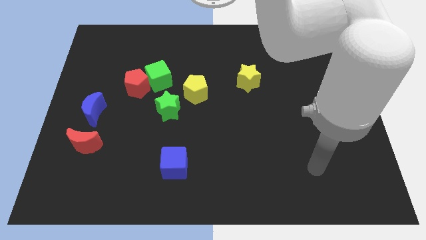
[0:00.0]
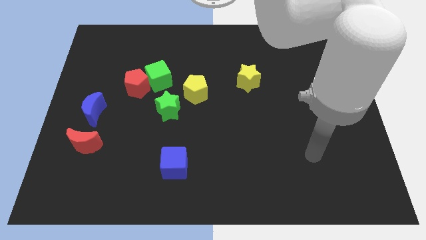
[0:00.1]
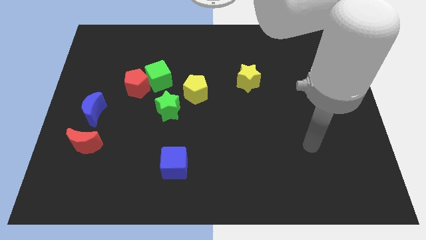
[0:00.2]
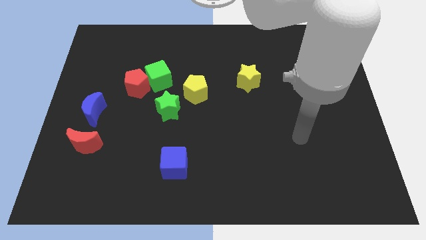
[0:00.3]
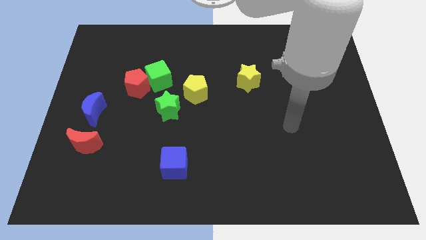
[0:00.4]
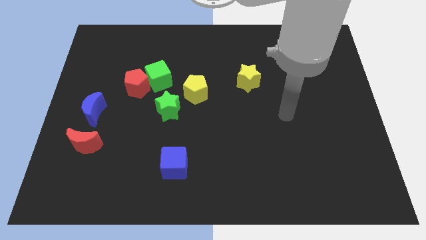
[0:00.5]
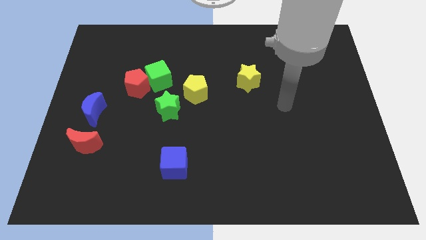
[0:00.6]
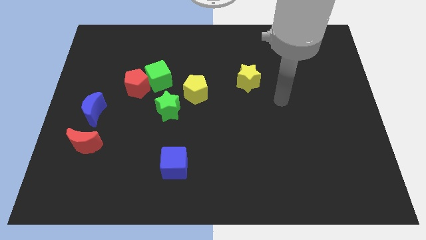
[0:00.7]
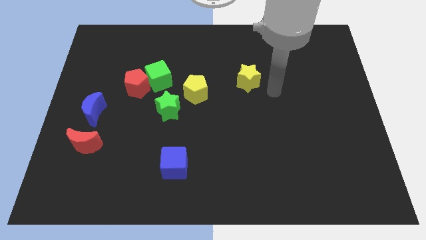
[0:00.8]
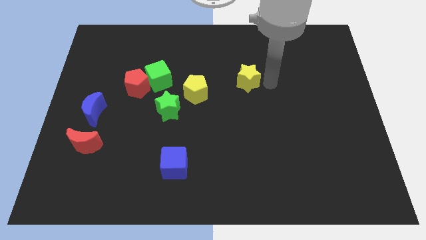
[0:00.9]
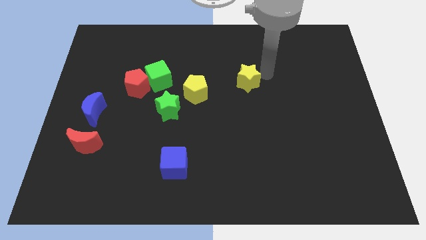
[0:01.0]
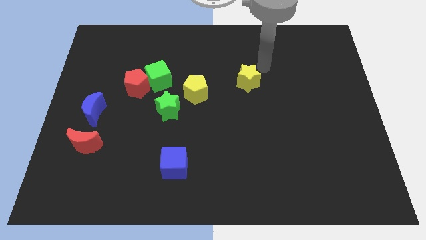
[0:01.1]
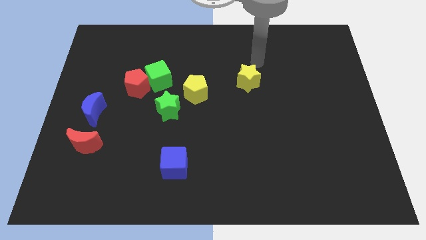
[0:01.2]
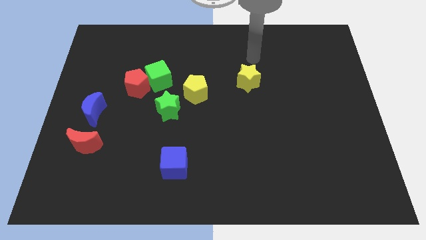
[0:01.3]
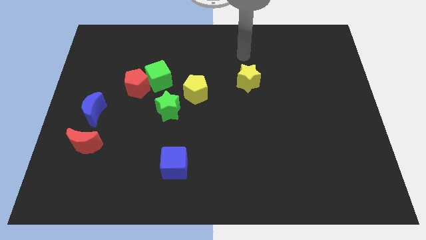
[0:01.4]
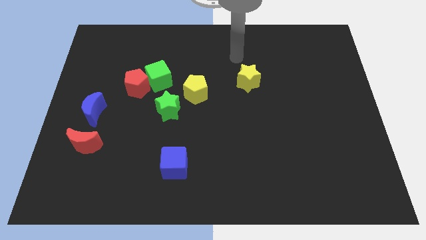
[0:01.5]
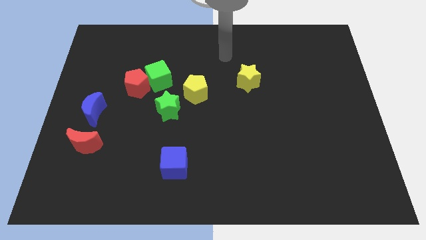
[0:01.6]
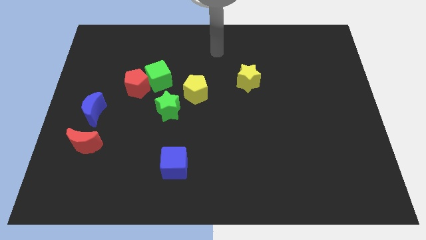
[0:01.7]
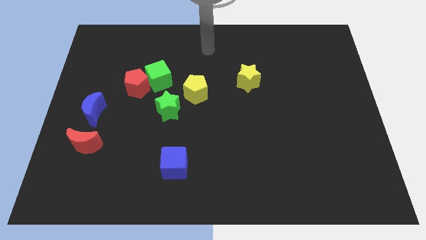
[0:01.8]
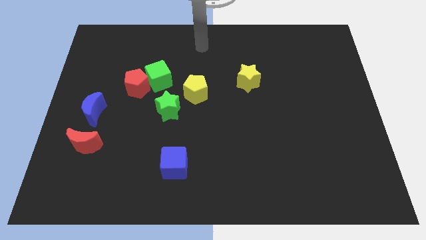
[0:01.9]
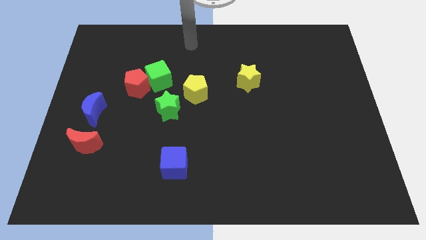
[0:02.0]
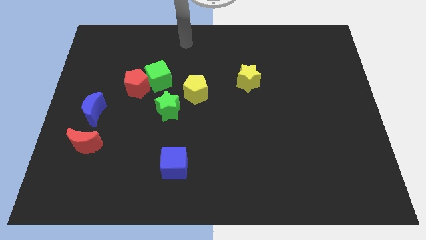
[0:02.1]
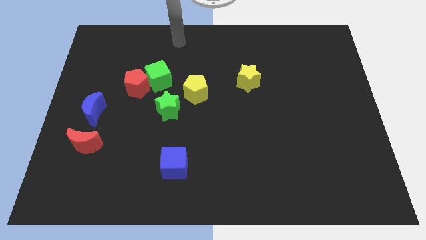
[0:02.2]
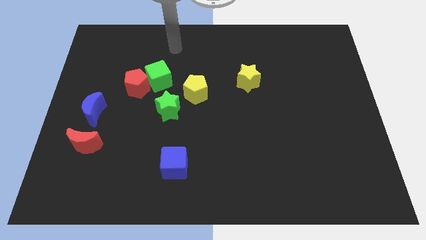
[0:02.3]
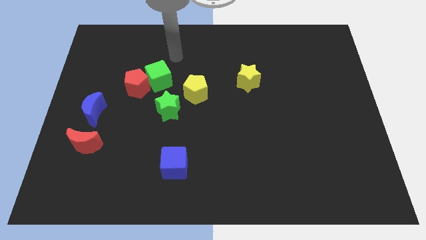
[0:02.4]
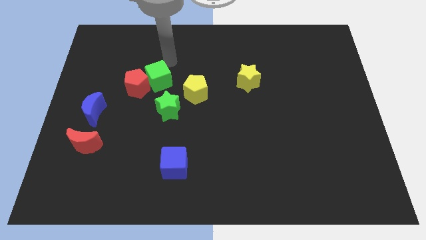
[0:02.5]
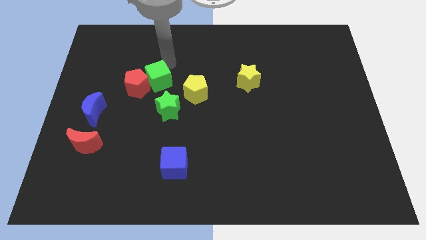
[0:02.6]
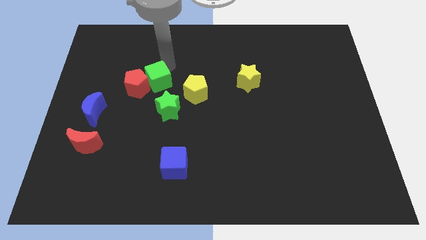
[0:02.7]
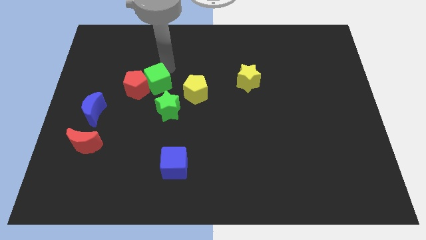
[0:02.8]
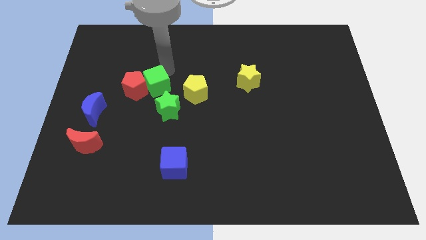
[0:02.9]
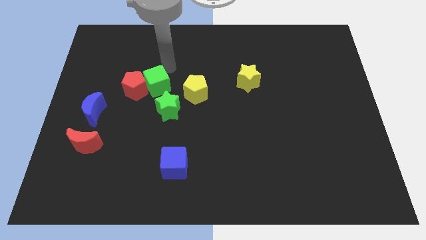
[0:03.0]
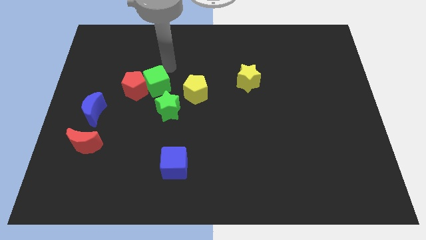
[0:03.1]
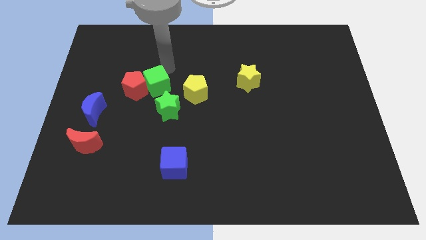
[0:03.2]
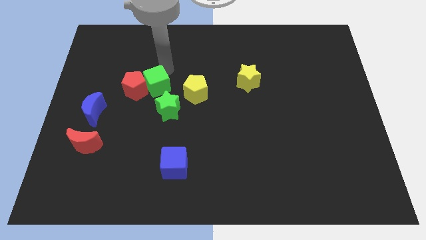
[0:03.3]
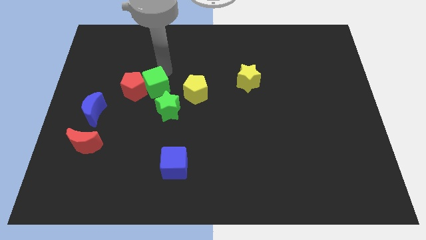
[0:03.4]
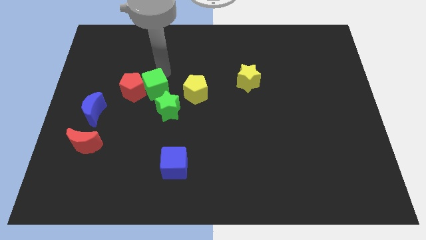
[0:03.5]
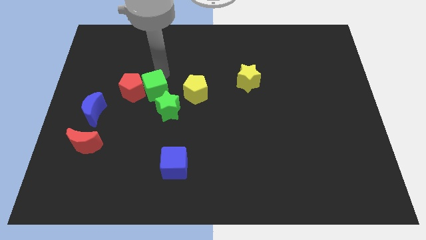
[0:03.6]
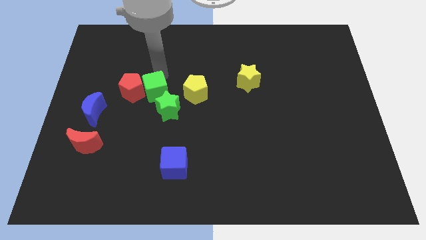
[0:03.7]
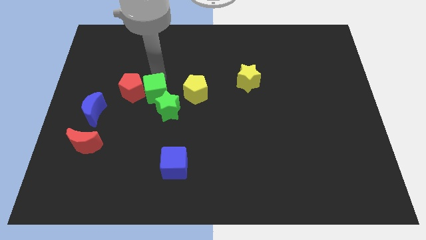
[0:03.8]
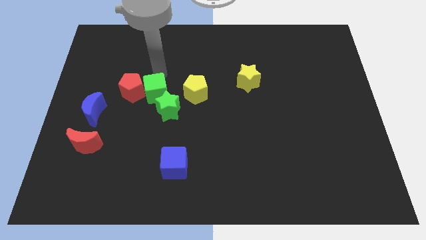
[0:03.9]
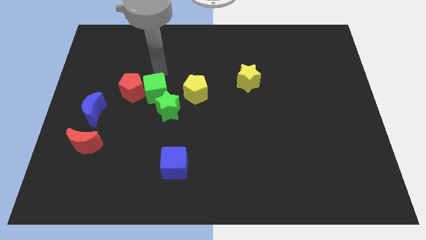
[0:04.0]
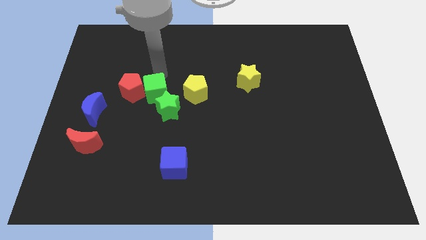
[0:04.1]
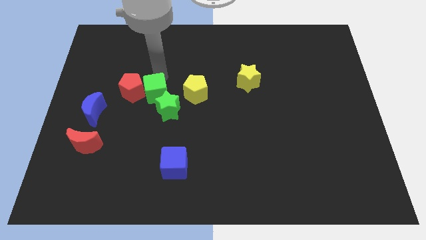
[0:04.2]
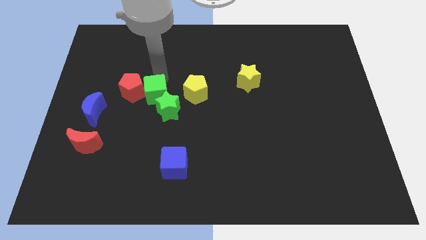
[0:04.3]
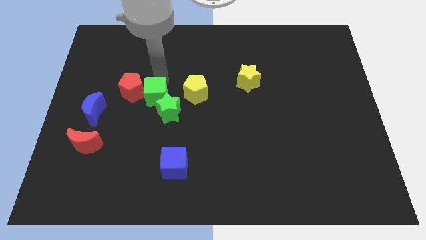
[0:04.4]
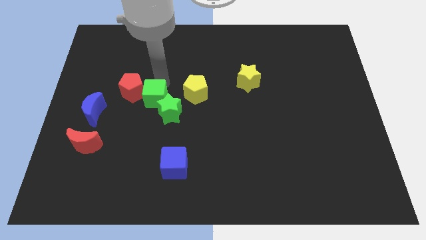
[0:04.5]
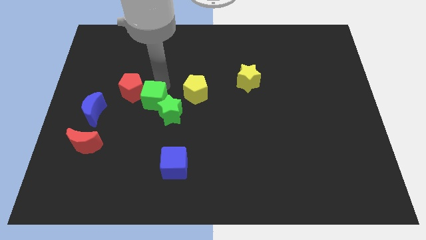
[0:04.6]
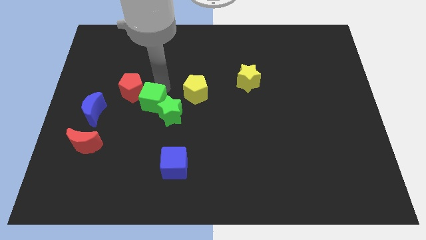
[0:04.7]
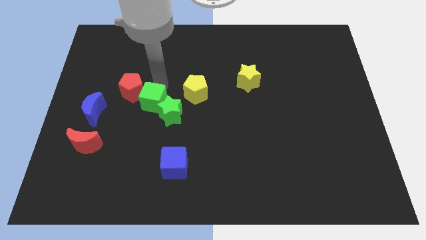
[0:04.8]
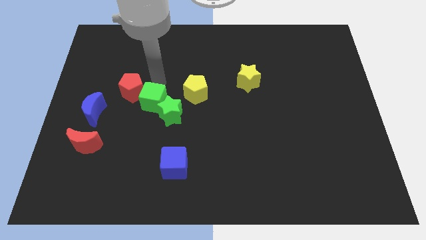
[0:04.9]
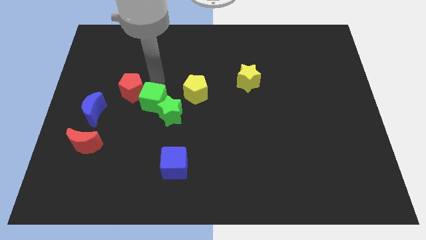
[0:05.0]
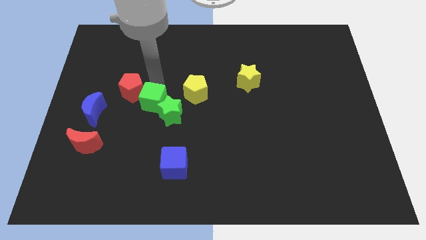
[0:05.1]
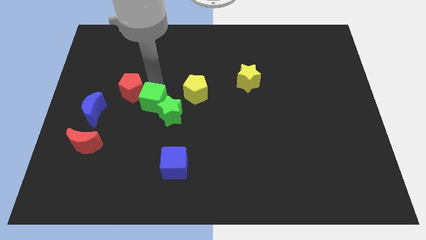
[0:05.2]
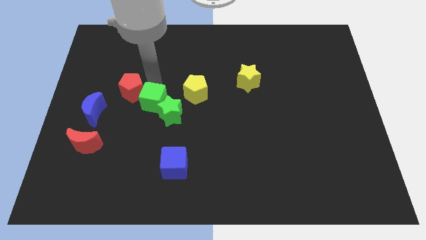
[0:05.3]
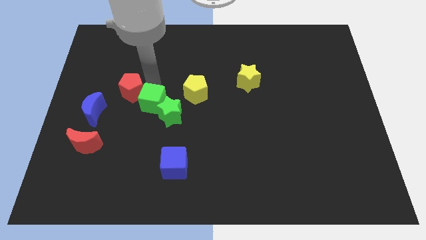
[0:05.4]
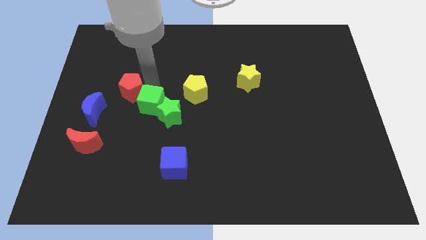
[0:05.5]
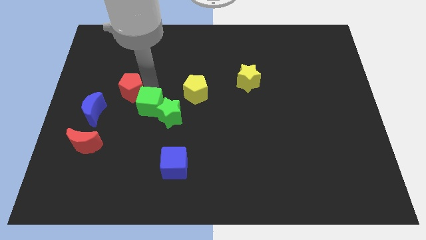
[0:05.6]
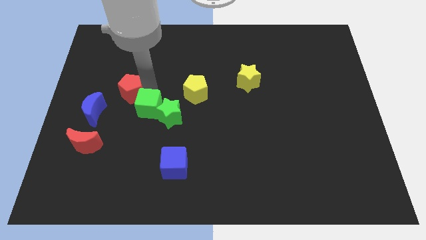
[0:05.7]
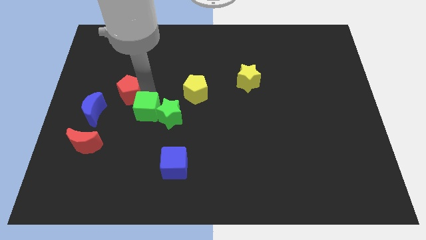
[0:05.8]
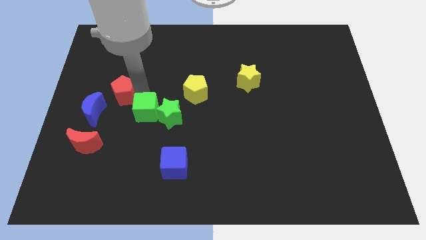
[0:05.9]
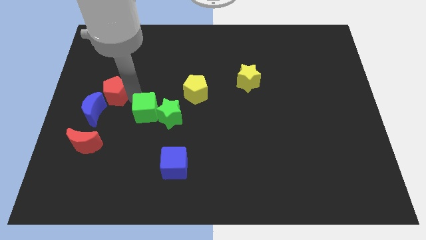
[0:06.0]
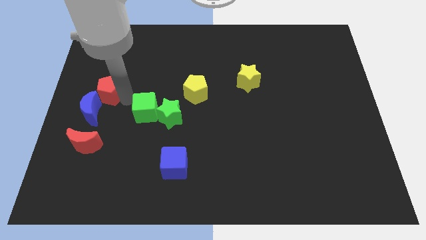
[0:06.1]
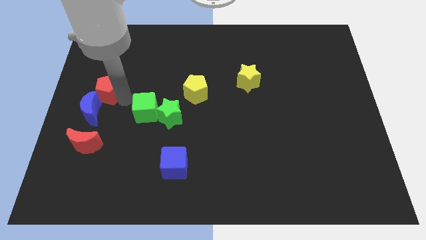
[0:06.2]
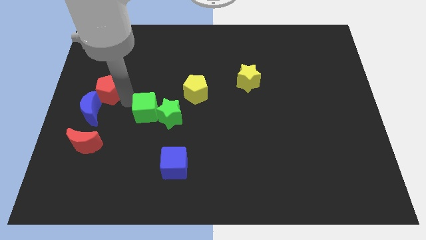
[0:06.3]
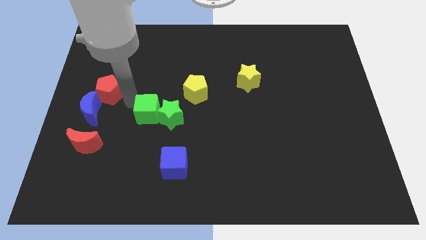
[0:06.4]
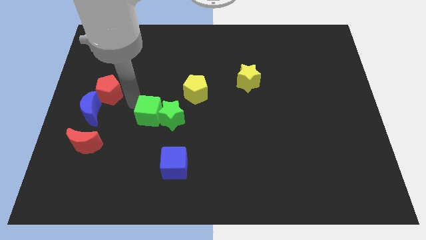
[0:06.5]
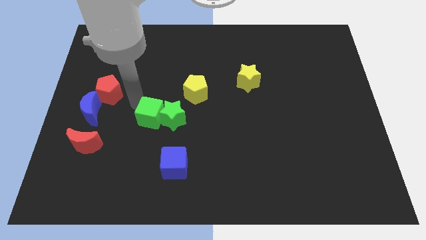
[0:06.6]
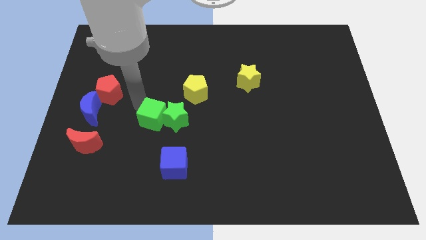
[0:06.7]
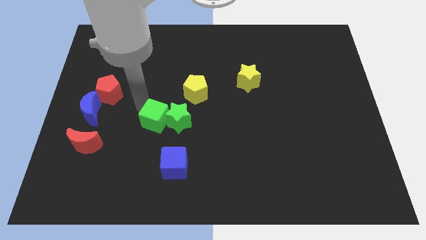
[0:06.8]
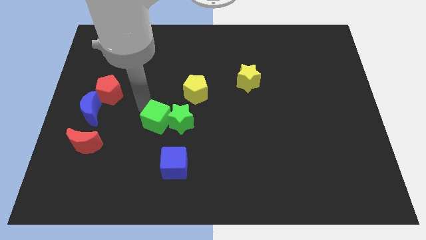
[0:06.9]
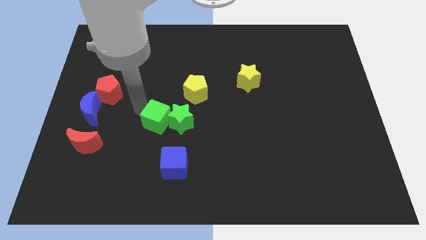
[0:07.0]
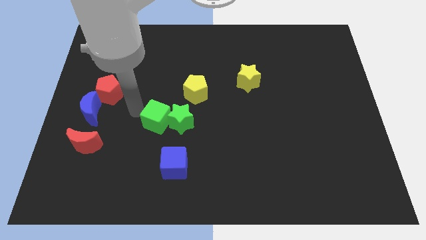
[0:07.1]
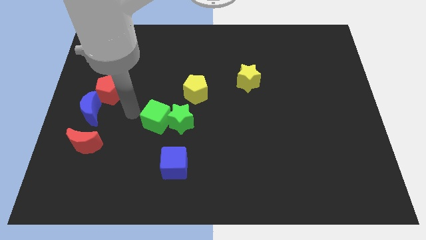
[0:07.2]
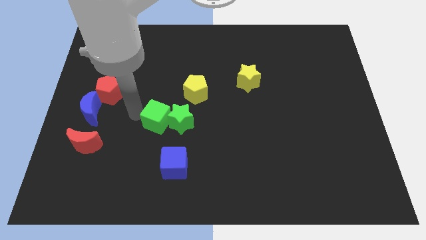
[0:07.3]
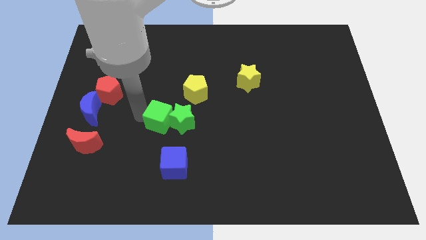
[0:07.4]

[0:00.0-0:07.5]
slide the green cube downwards and right slightly

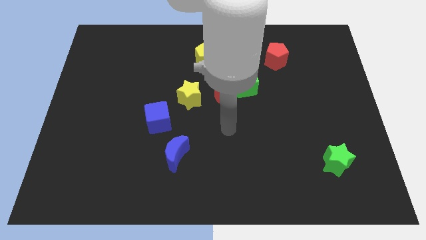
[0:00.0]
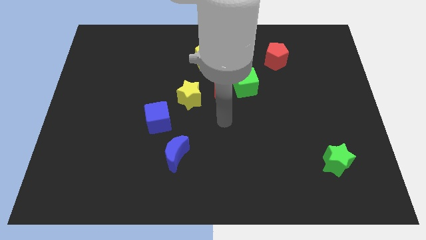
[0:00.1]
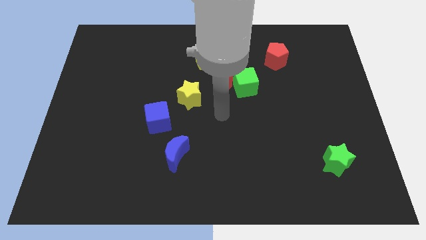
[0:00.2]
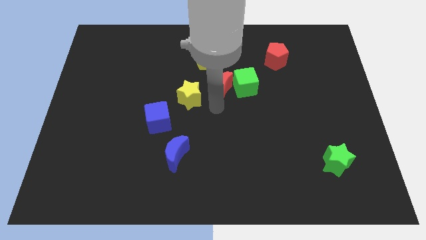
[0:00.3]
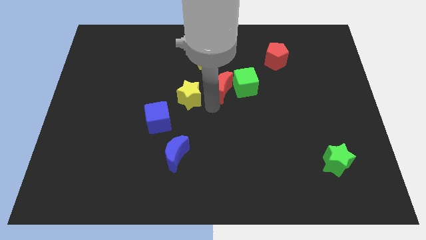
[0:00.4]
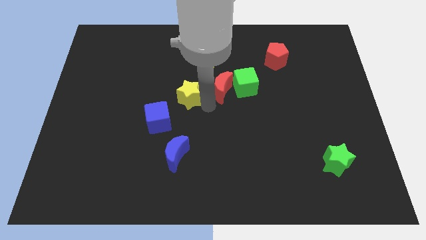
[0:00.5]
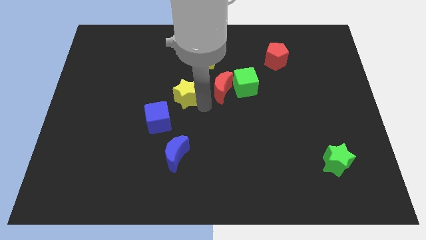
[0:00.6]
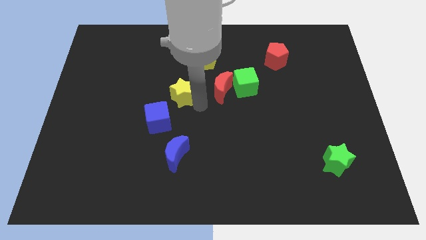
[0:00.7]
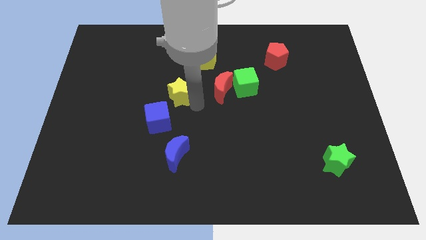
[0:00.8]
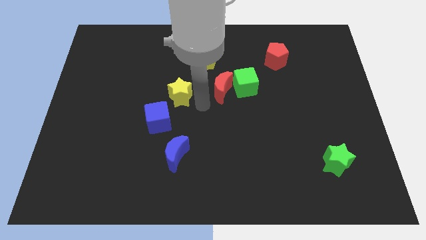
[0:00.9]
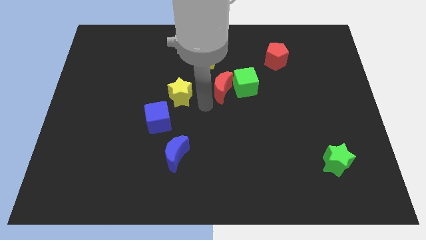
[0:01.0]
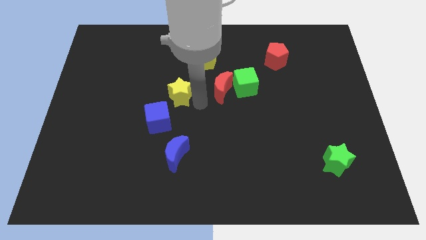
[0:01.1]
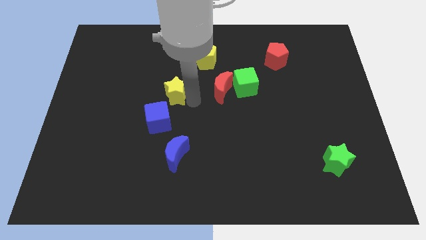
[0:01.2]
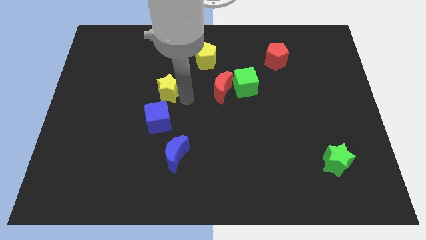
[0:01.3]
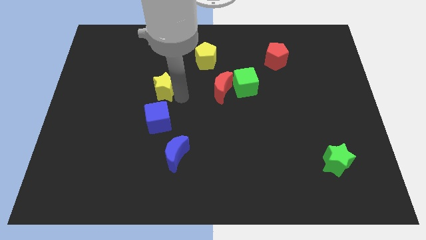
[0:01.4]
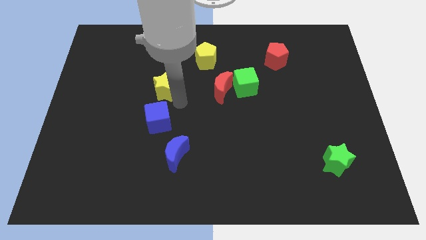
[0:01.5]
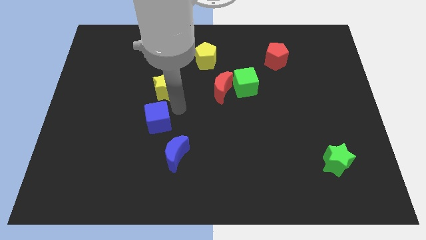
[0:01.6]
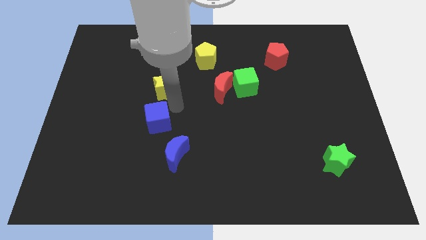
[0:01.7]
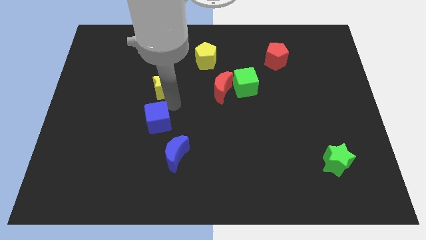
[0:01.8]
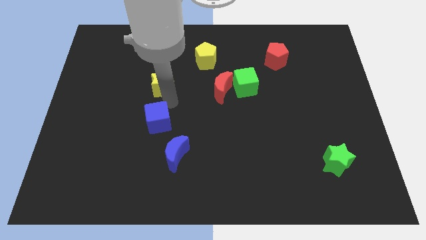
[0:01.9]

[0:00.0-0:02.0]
slide the yellow star slightly up and to the left diagonally
